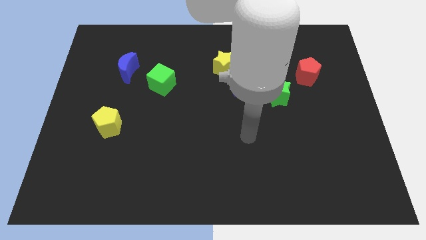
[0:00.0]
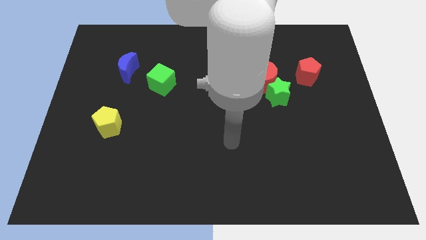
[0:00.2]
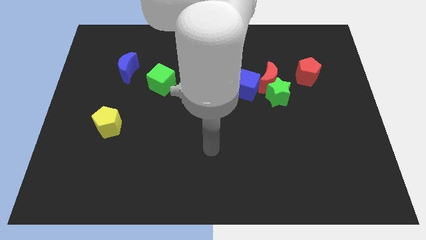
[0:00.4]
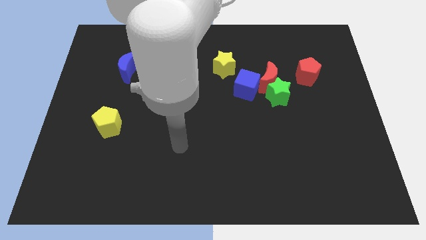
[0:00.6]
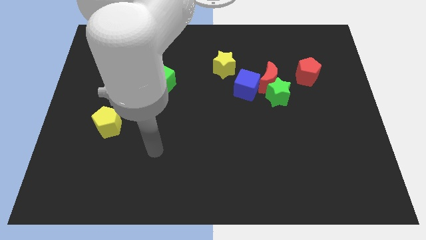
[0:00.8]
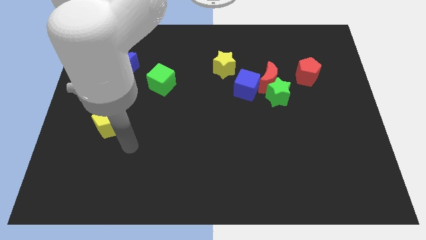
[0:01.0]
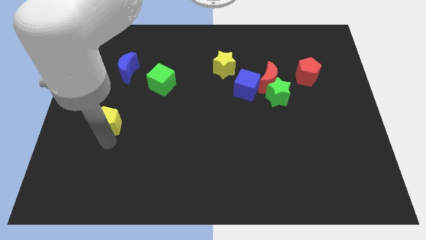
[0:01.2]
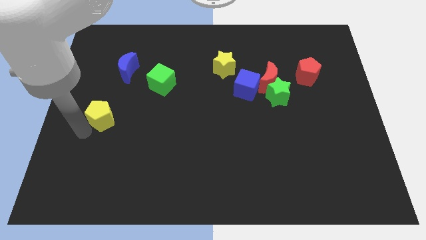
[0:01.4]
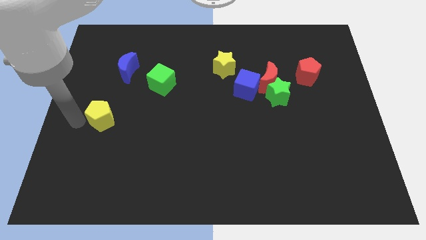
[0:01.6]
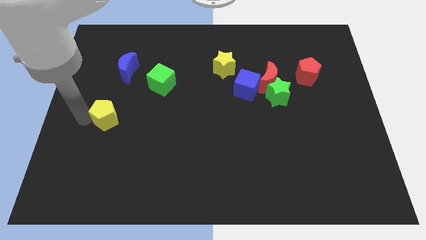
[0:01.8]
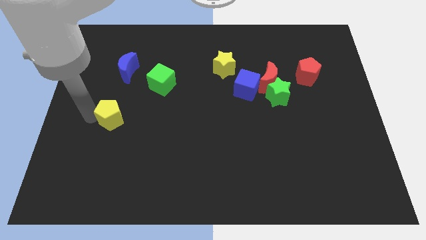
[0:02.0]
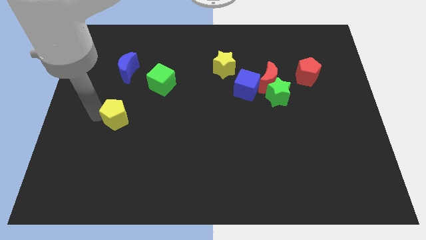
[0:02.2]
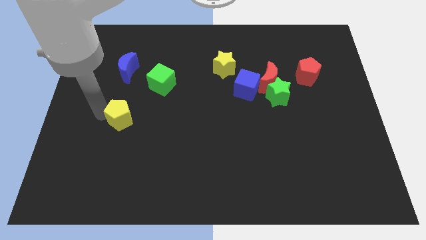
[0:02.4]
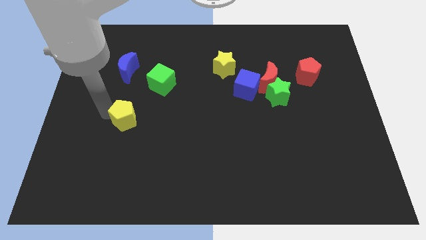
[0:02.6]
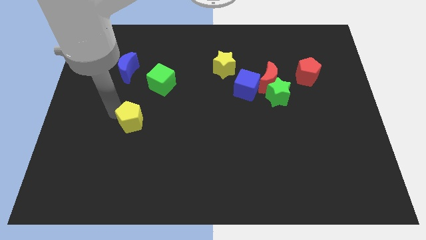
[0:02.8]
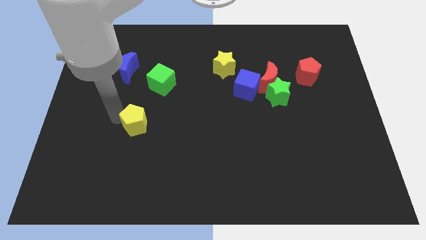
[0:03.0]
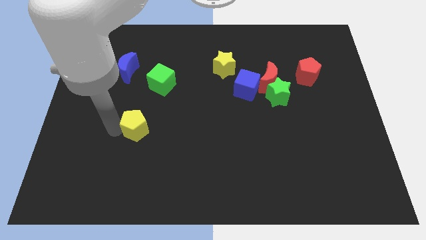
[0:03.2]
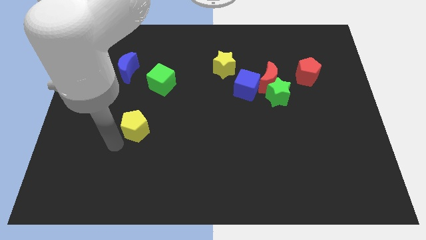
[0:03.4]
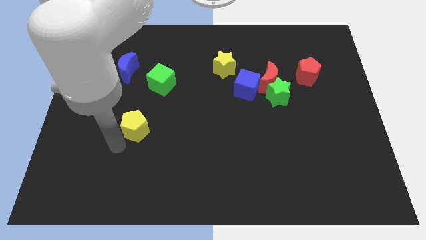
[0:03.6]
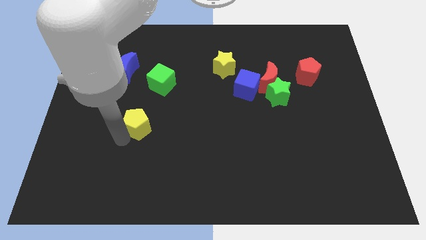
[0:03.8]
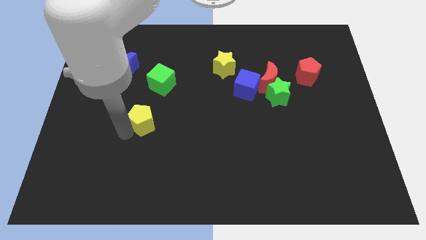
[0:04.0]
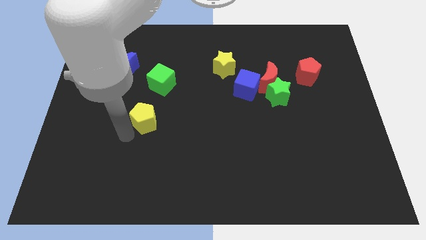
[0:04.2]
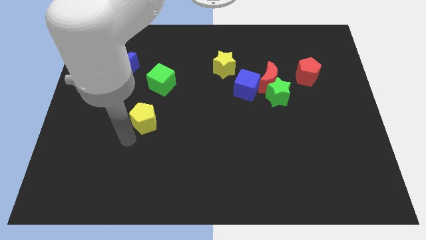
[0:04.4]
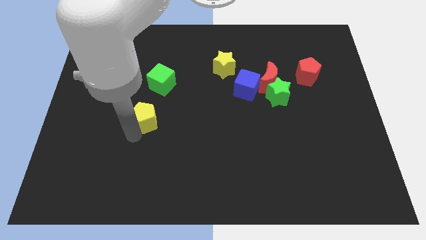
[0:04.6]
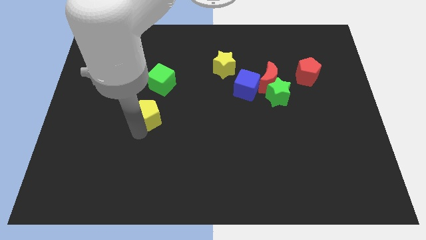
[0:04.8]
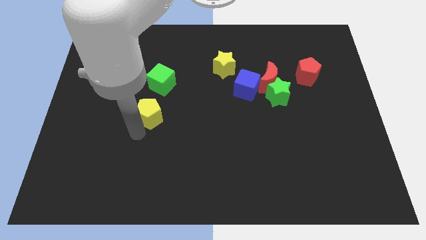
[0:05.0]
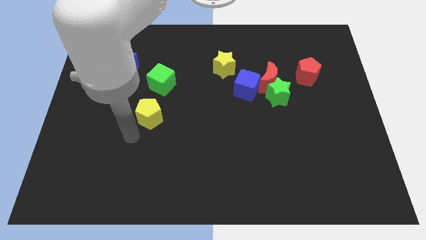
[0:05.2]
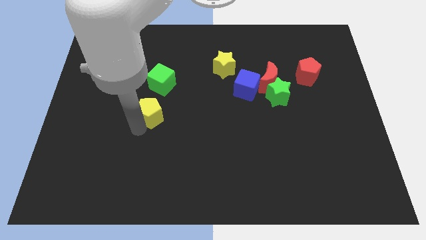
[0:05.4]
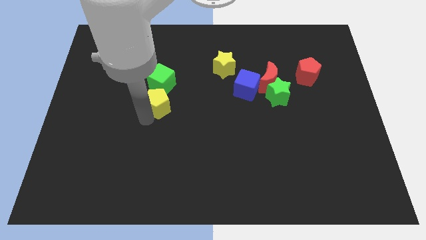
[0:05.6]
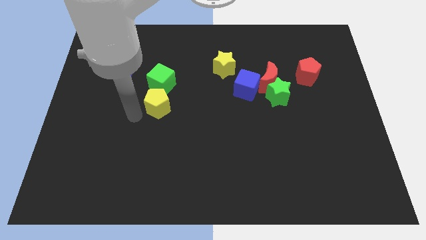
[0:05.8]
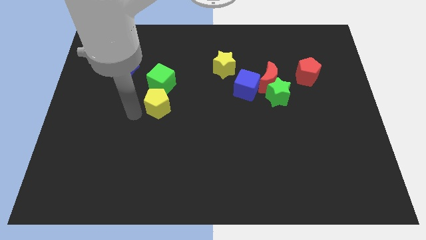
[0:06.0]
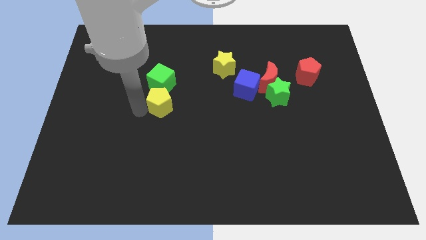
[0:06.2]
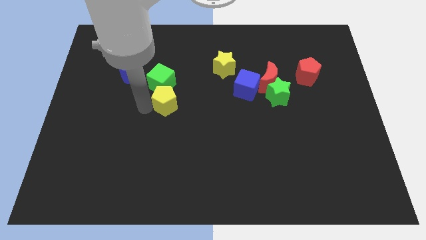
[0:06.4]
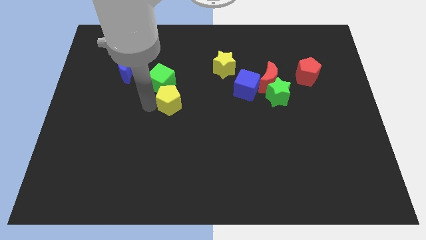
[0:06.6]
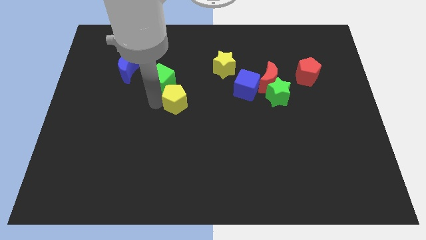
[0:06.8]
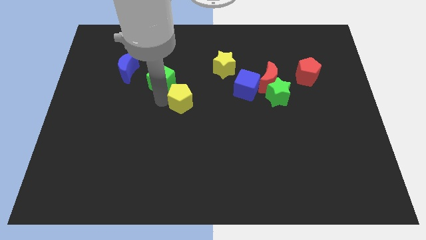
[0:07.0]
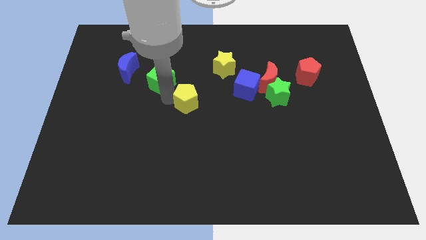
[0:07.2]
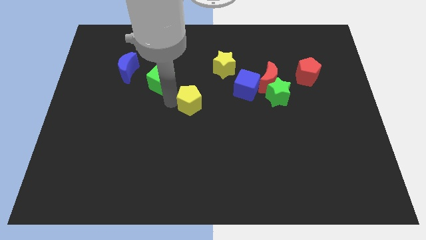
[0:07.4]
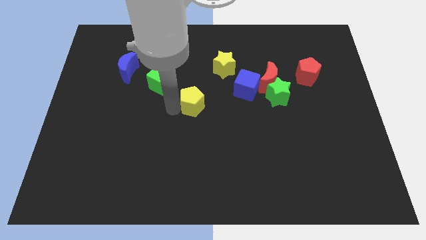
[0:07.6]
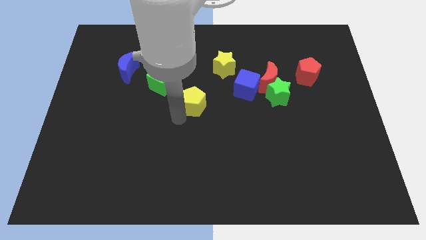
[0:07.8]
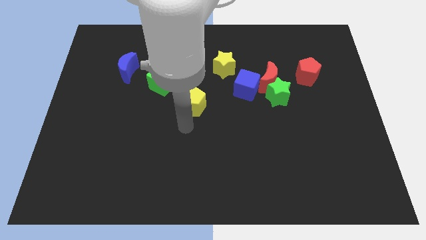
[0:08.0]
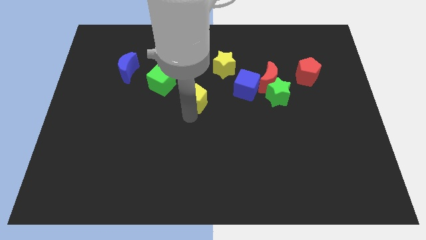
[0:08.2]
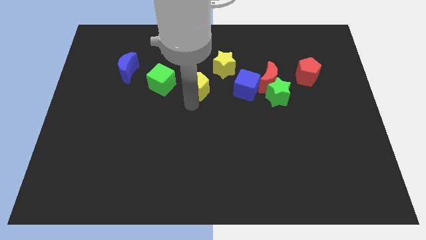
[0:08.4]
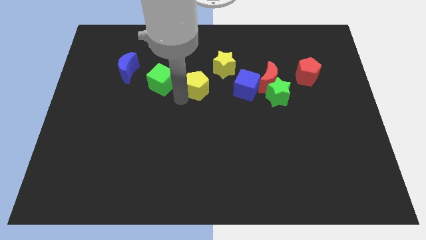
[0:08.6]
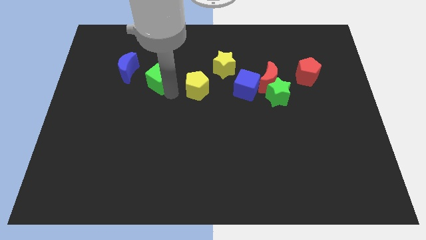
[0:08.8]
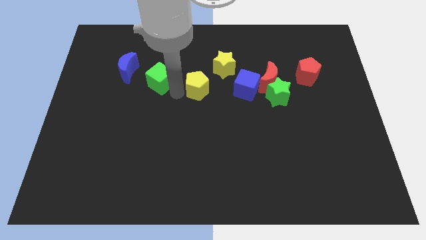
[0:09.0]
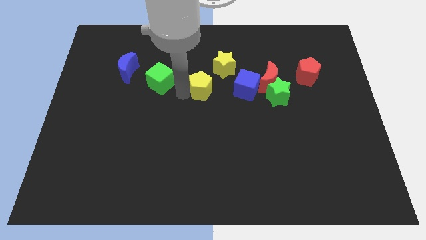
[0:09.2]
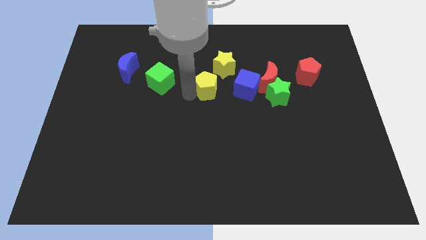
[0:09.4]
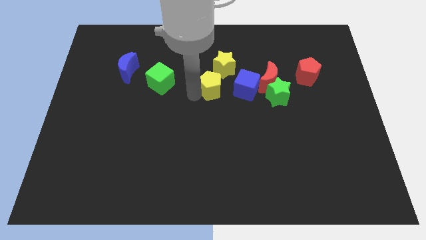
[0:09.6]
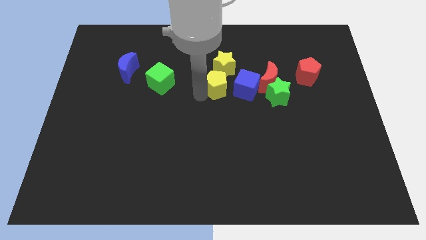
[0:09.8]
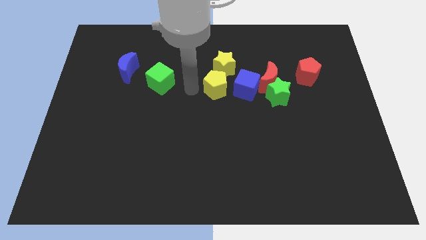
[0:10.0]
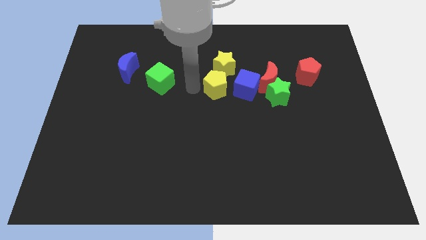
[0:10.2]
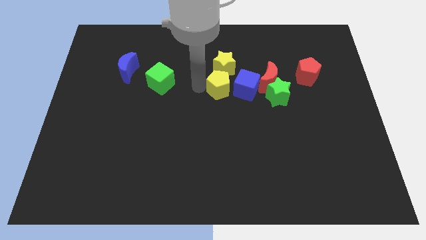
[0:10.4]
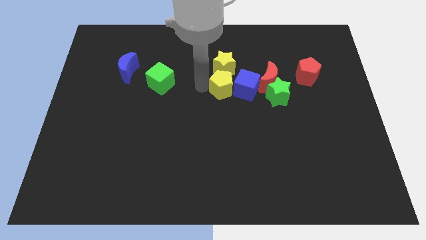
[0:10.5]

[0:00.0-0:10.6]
slide the yellow pentagon next to the blue cube

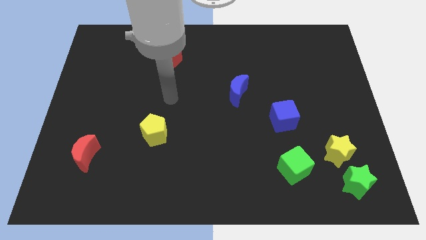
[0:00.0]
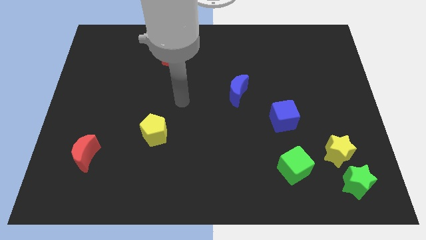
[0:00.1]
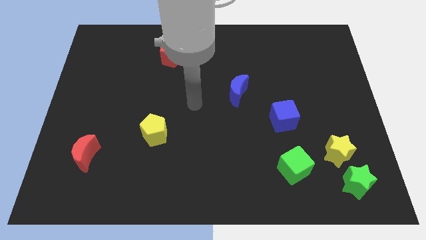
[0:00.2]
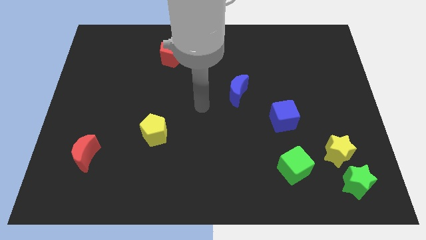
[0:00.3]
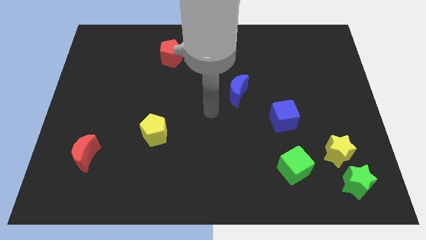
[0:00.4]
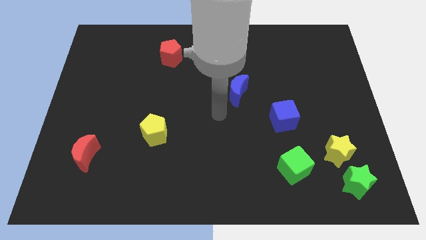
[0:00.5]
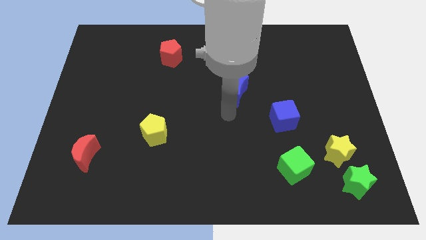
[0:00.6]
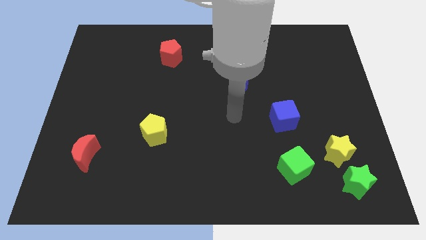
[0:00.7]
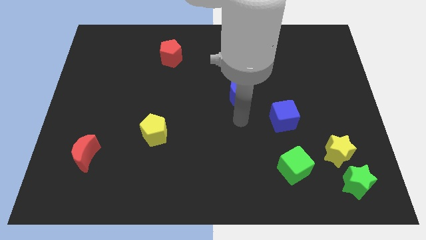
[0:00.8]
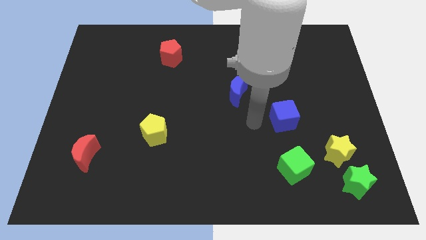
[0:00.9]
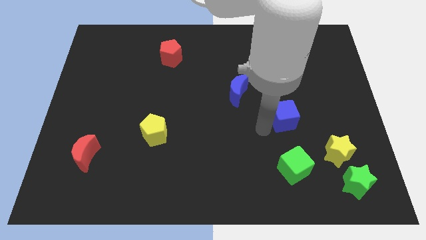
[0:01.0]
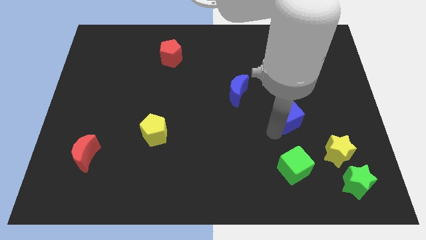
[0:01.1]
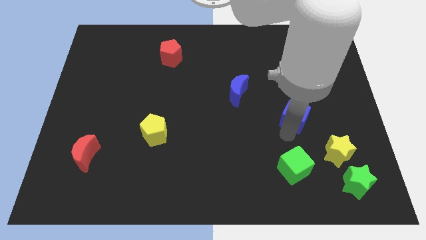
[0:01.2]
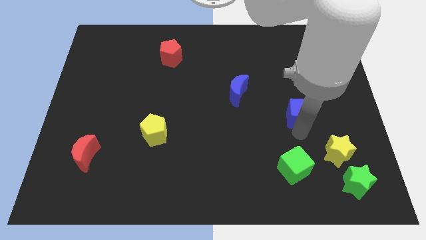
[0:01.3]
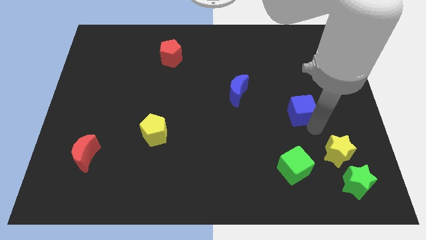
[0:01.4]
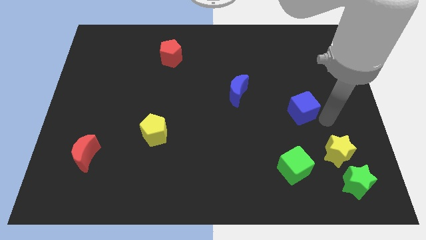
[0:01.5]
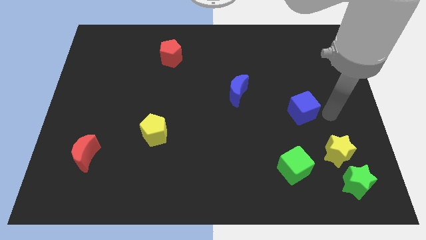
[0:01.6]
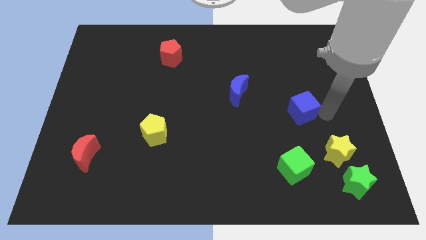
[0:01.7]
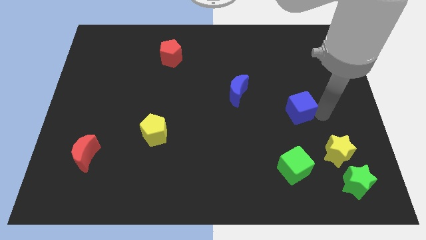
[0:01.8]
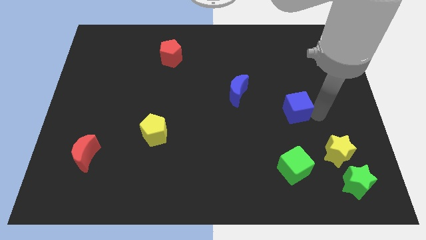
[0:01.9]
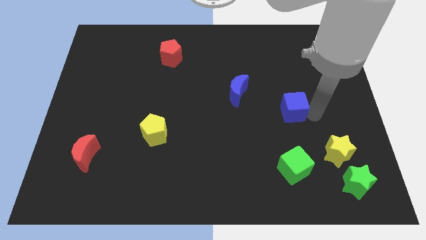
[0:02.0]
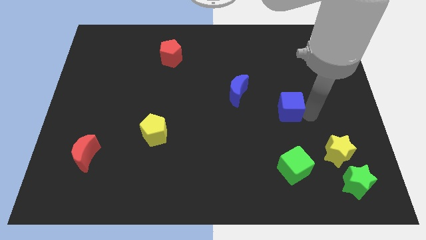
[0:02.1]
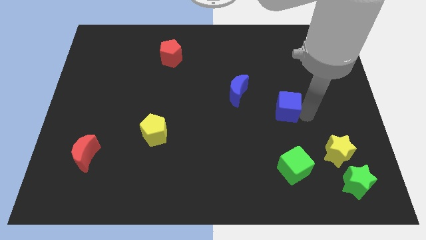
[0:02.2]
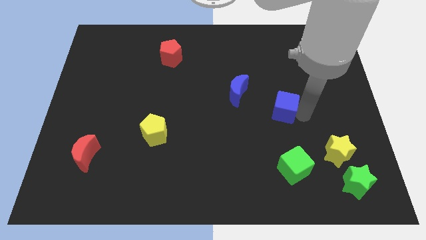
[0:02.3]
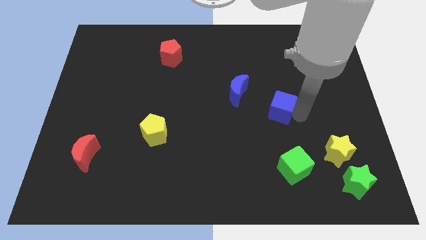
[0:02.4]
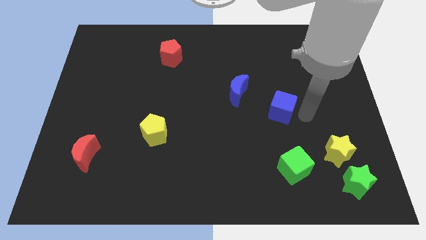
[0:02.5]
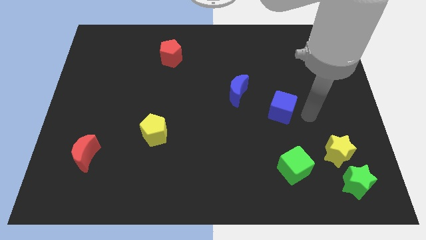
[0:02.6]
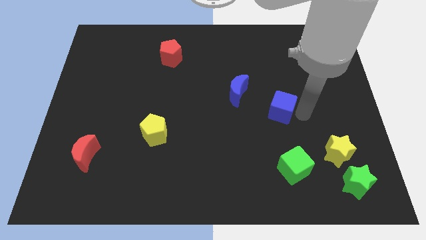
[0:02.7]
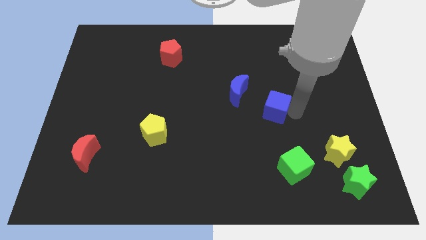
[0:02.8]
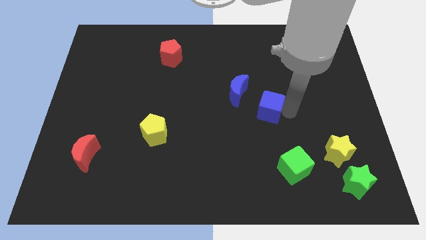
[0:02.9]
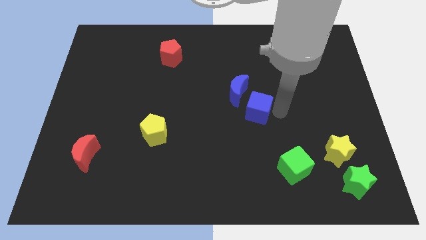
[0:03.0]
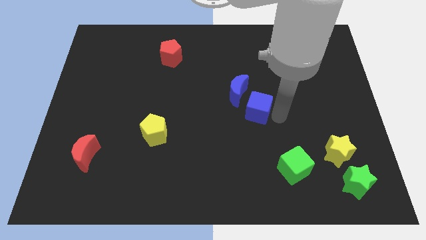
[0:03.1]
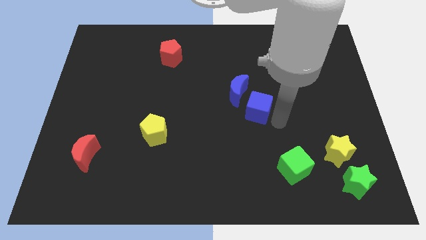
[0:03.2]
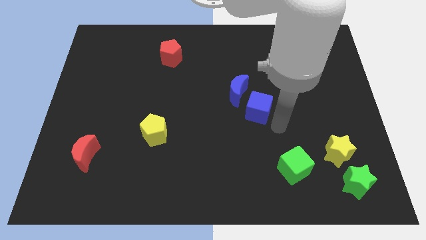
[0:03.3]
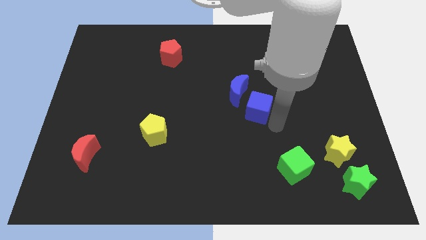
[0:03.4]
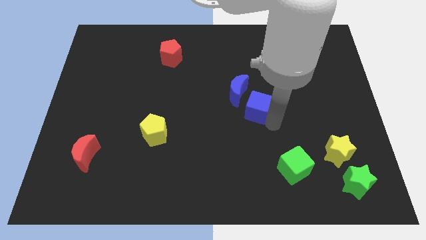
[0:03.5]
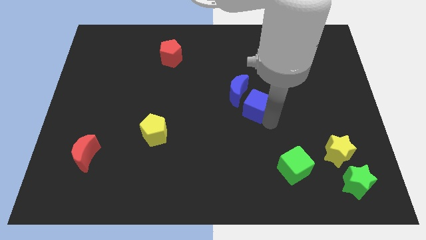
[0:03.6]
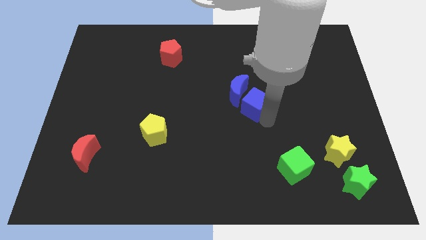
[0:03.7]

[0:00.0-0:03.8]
put the blue cube towards the blue moon
